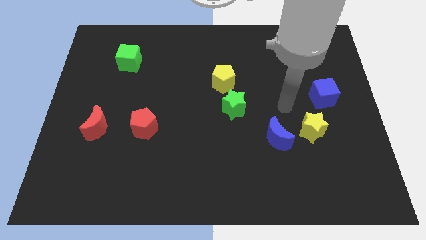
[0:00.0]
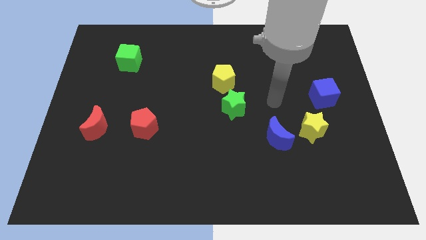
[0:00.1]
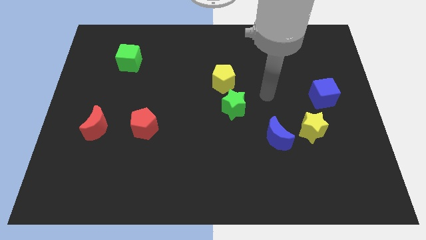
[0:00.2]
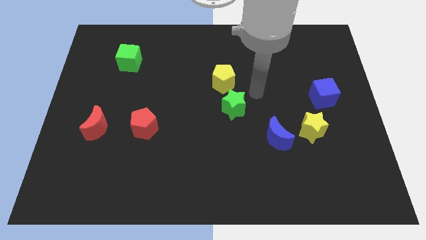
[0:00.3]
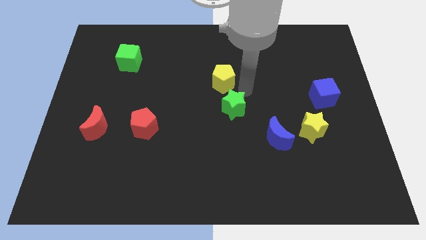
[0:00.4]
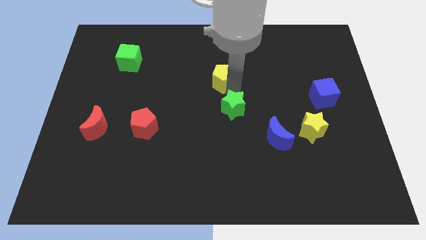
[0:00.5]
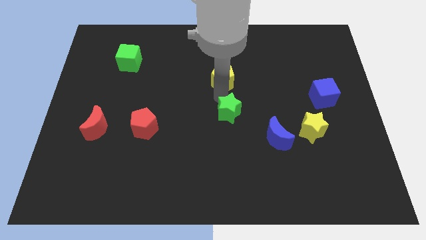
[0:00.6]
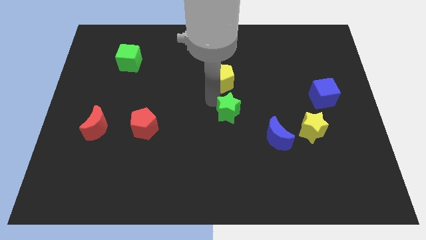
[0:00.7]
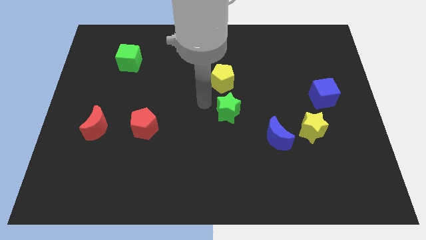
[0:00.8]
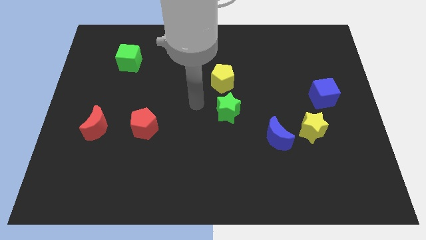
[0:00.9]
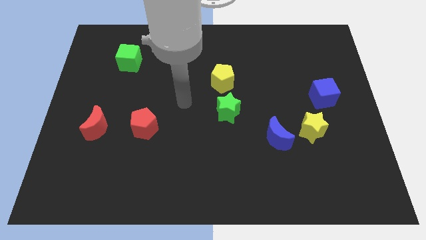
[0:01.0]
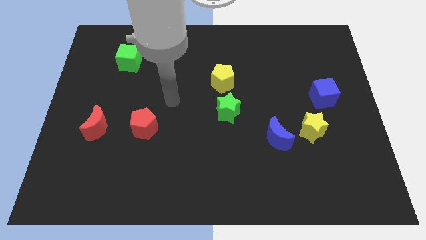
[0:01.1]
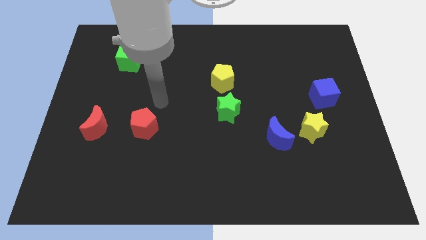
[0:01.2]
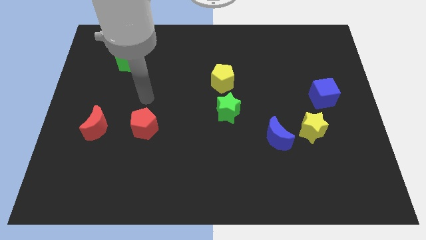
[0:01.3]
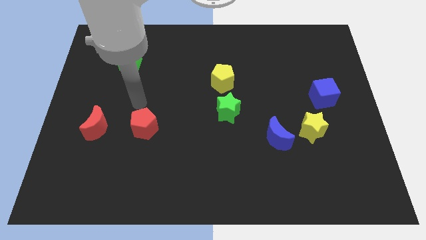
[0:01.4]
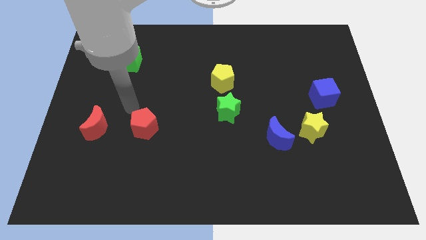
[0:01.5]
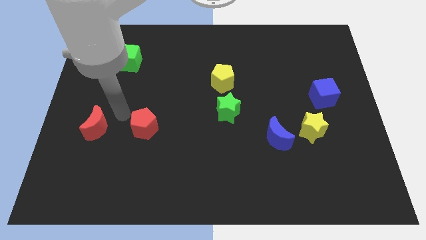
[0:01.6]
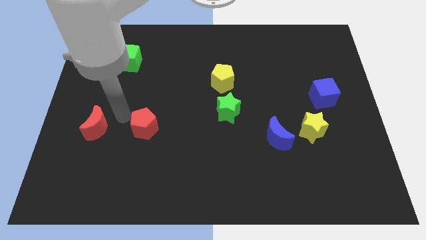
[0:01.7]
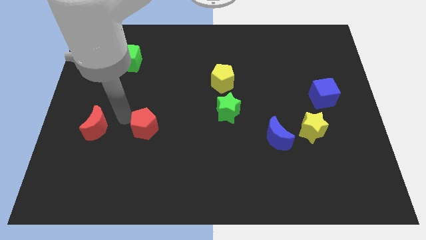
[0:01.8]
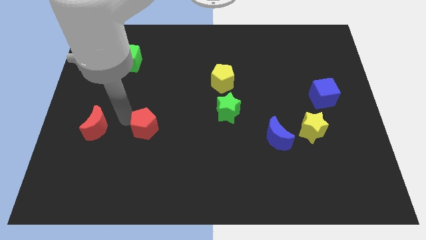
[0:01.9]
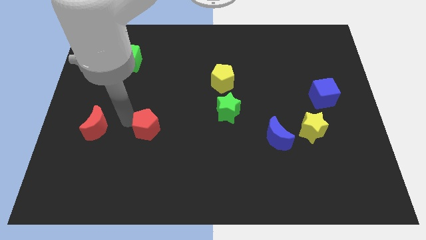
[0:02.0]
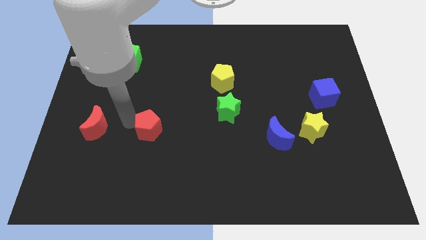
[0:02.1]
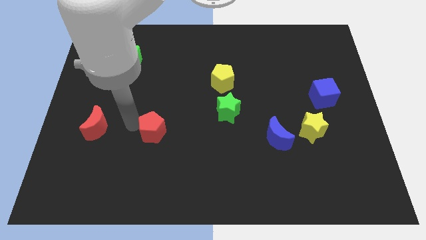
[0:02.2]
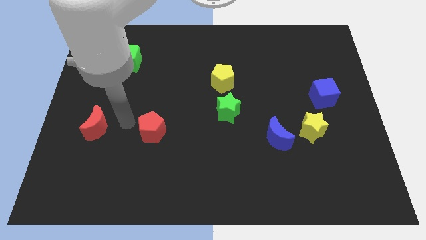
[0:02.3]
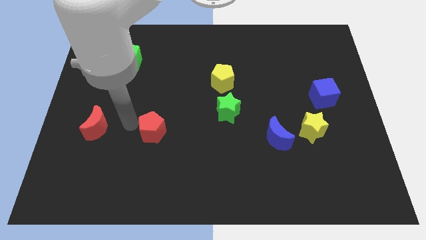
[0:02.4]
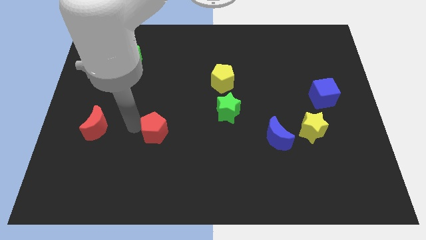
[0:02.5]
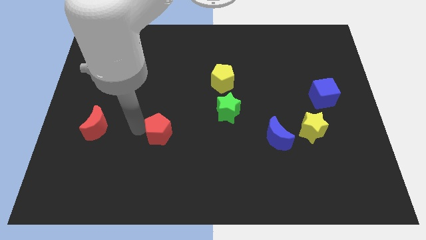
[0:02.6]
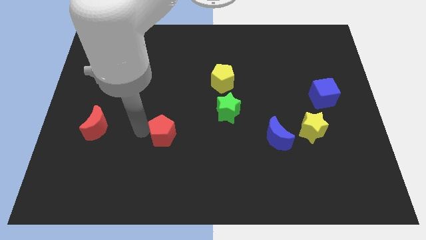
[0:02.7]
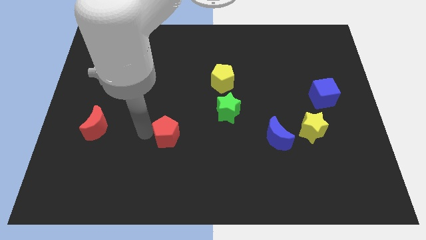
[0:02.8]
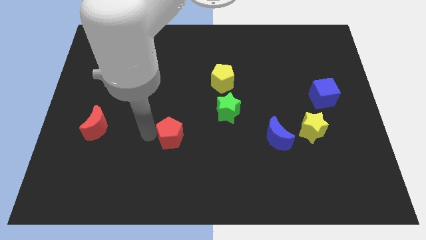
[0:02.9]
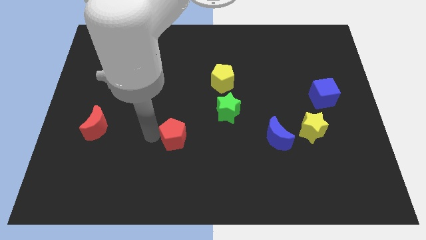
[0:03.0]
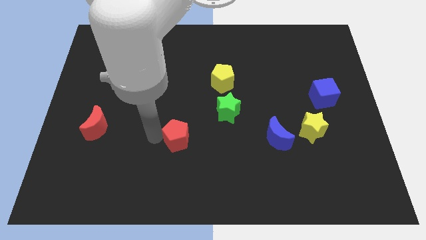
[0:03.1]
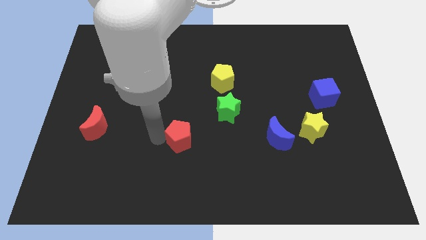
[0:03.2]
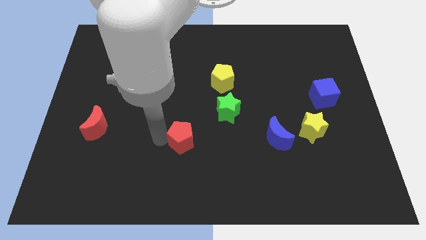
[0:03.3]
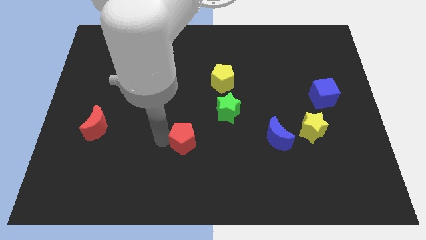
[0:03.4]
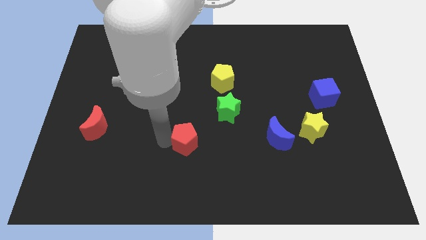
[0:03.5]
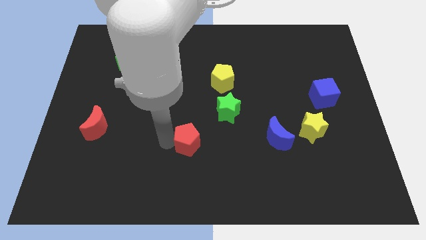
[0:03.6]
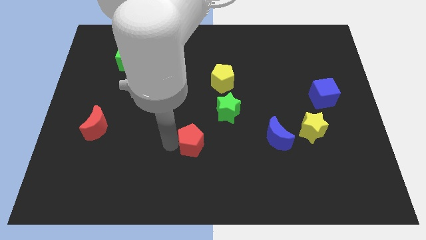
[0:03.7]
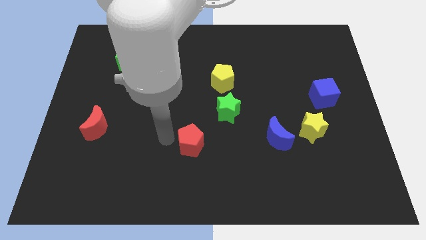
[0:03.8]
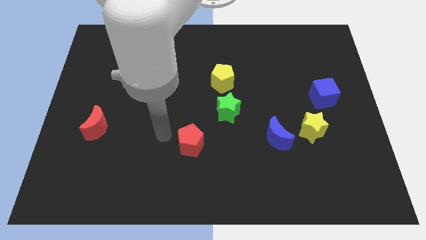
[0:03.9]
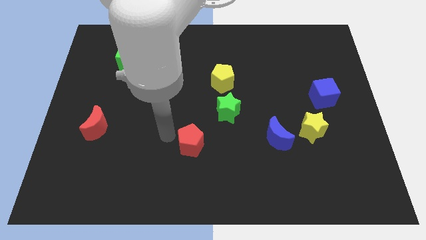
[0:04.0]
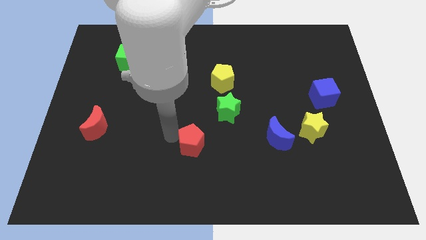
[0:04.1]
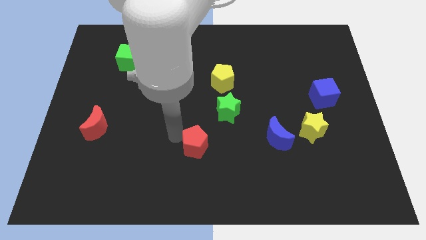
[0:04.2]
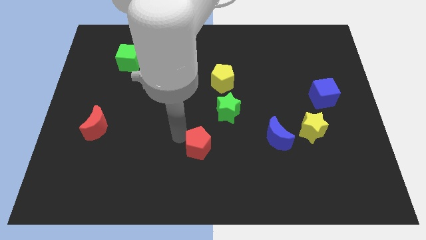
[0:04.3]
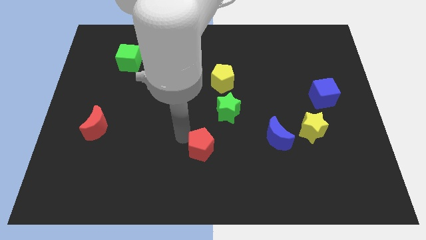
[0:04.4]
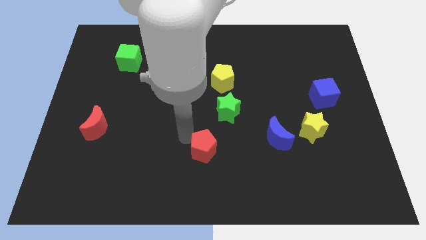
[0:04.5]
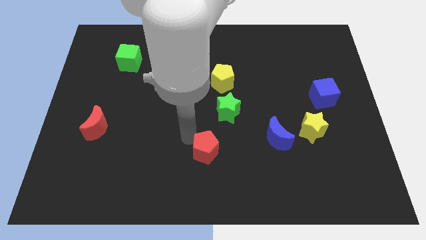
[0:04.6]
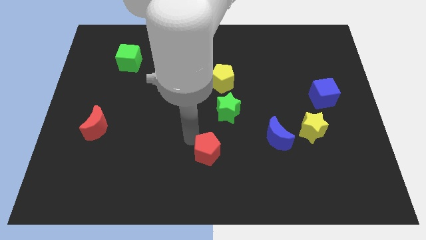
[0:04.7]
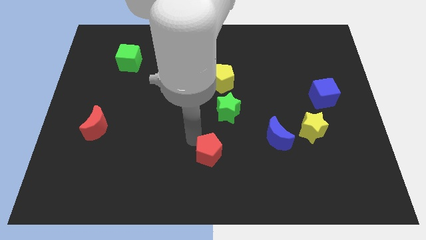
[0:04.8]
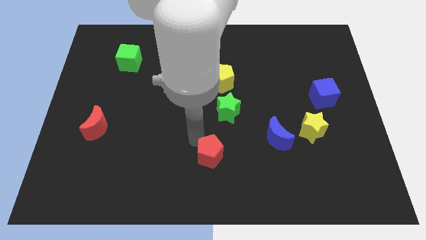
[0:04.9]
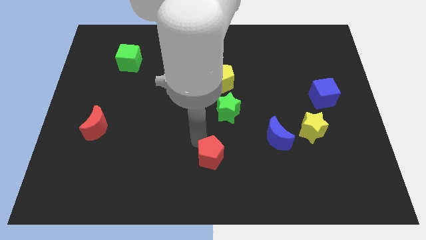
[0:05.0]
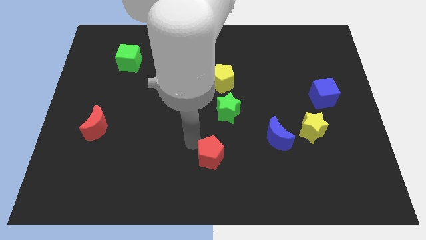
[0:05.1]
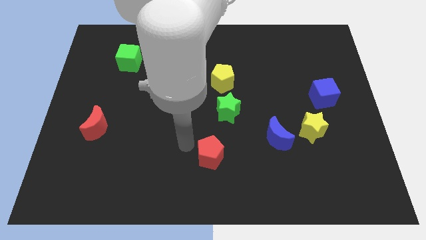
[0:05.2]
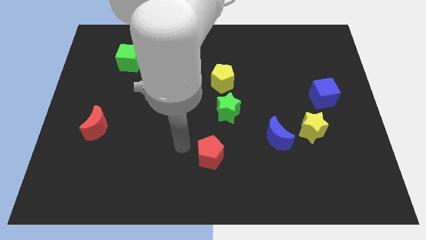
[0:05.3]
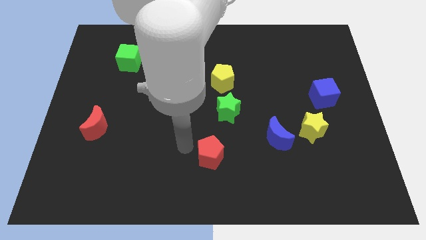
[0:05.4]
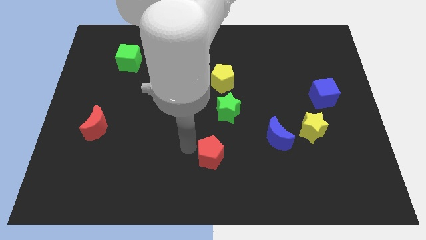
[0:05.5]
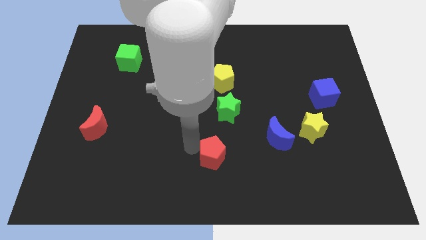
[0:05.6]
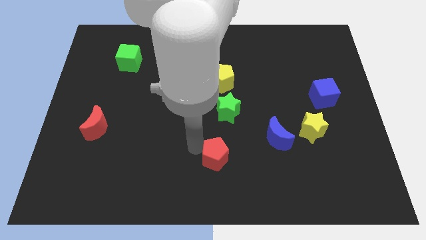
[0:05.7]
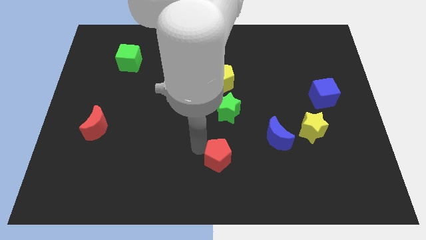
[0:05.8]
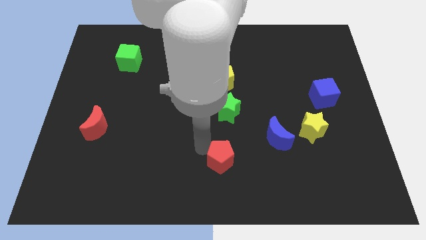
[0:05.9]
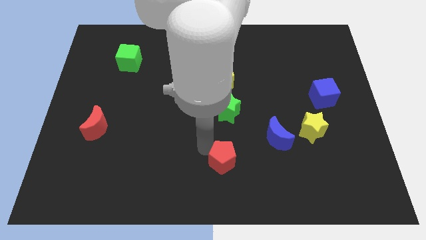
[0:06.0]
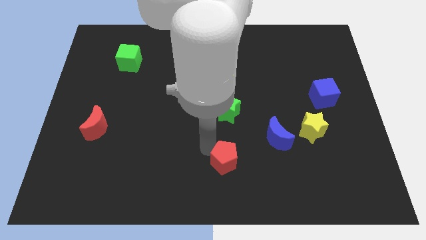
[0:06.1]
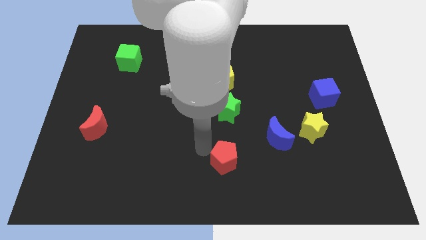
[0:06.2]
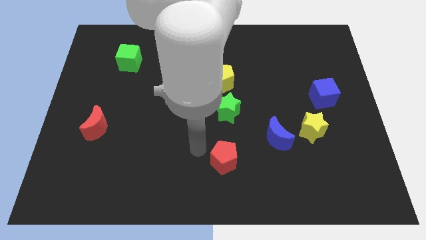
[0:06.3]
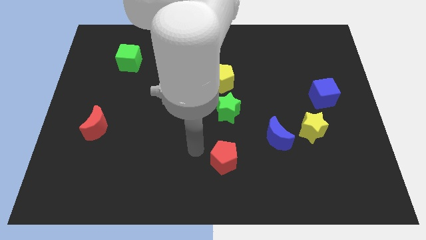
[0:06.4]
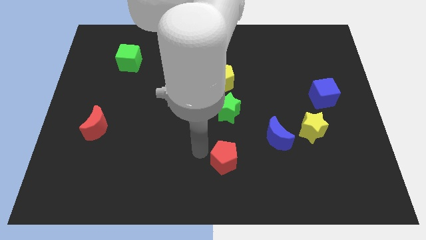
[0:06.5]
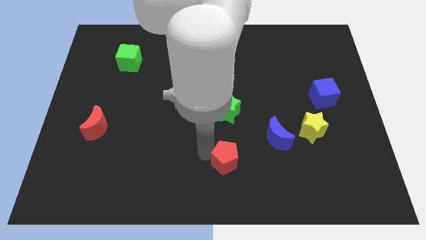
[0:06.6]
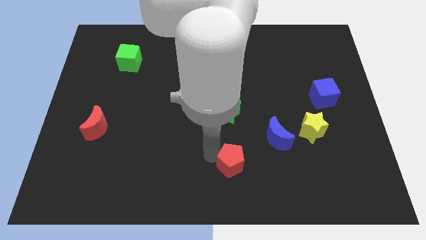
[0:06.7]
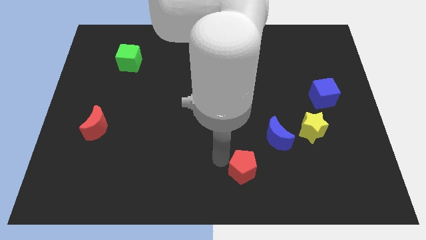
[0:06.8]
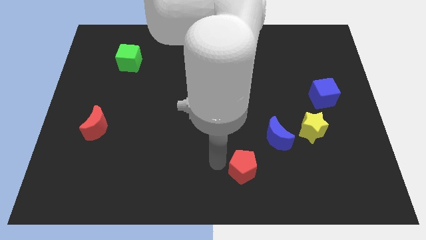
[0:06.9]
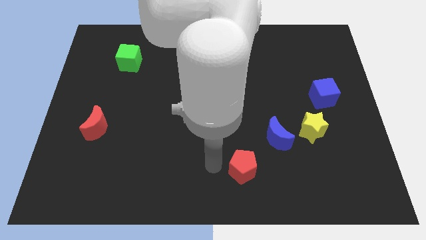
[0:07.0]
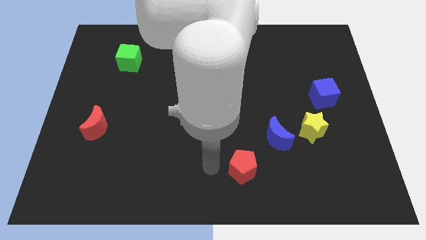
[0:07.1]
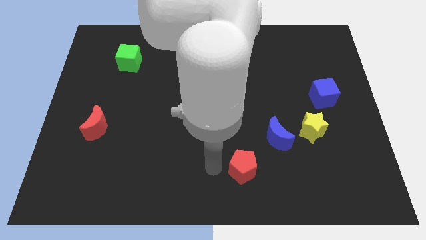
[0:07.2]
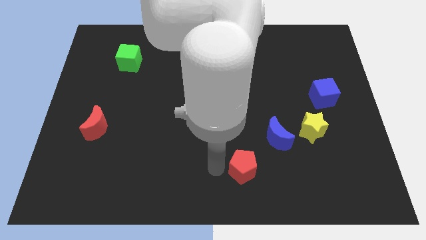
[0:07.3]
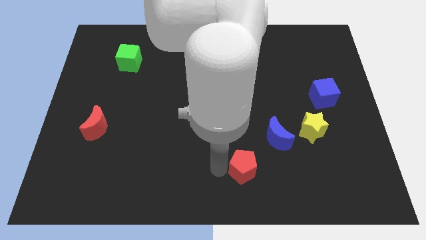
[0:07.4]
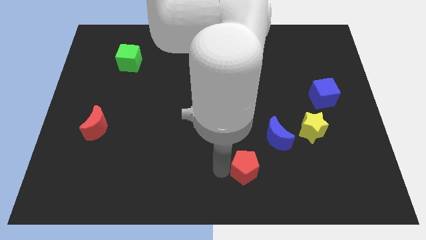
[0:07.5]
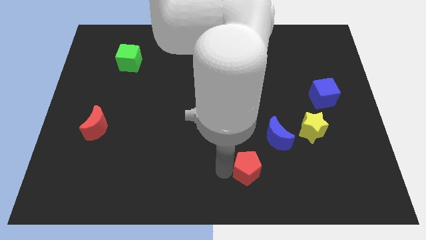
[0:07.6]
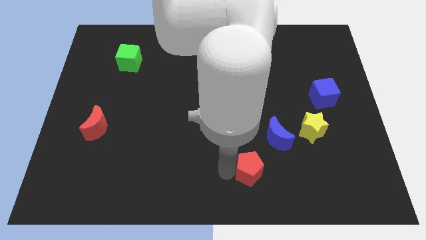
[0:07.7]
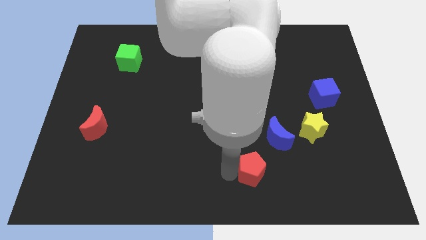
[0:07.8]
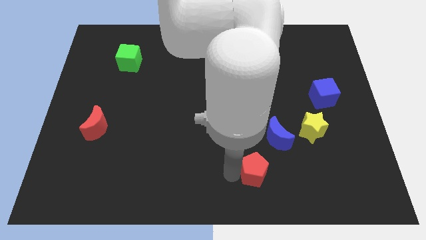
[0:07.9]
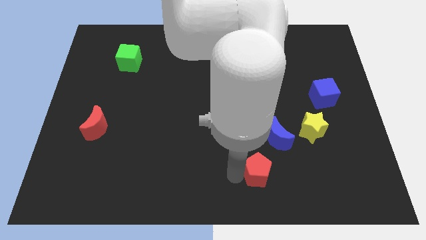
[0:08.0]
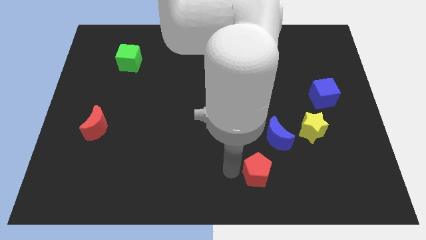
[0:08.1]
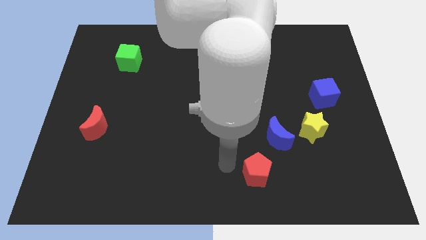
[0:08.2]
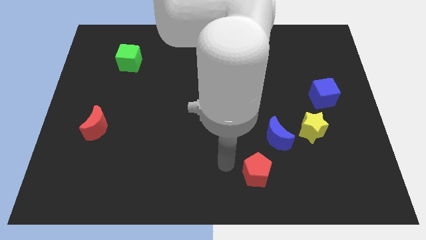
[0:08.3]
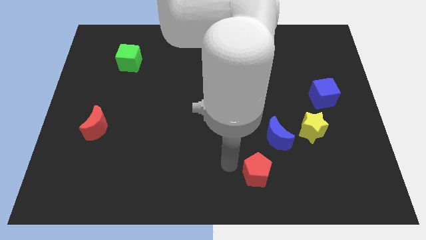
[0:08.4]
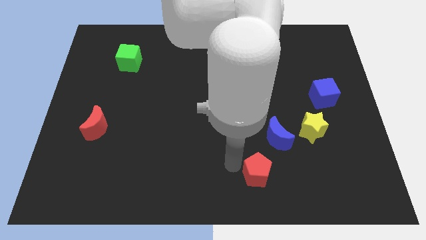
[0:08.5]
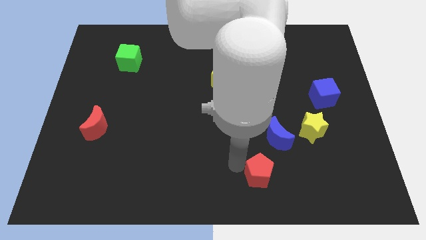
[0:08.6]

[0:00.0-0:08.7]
move the red pentagon to the bottom of the blue moon
